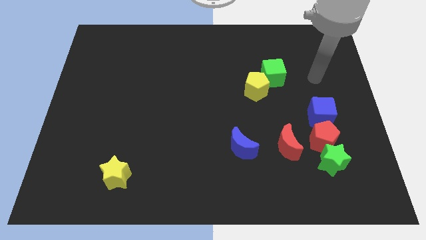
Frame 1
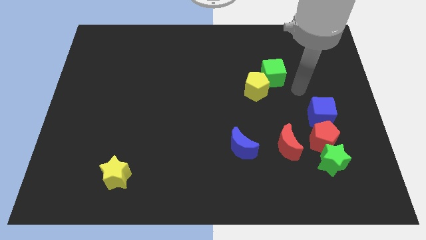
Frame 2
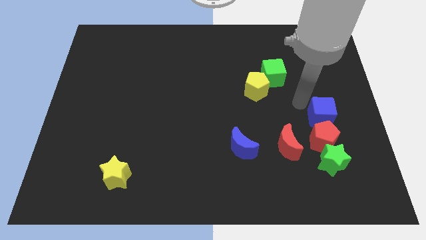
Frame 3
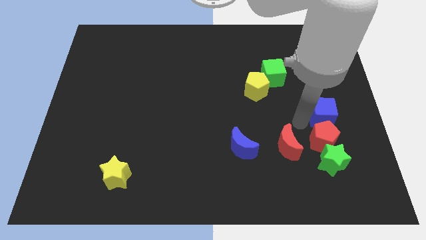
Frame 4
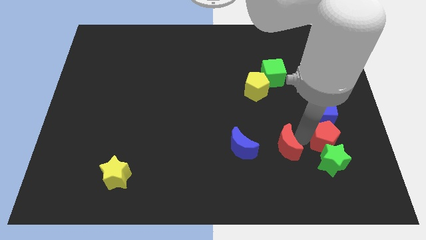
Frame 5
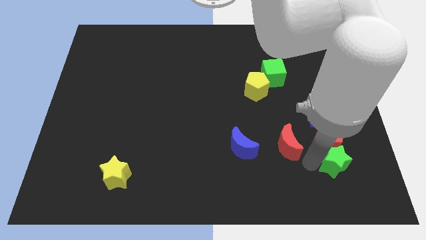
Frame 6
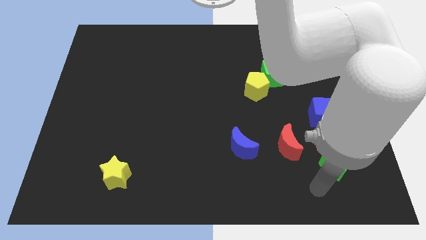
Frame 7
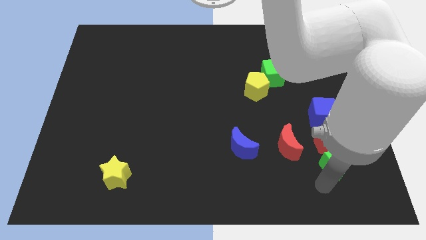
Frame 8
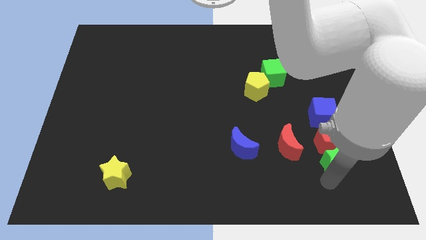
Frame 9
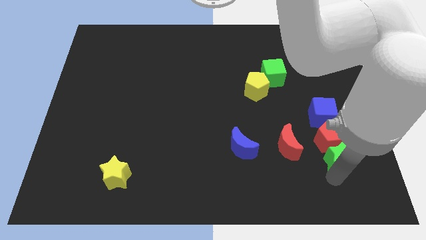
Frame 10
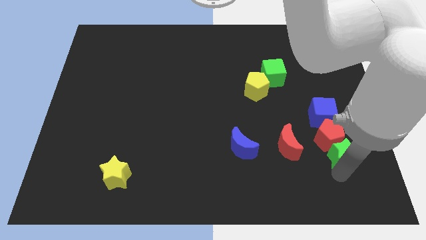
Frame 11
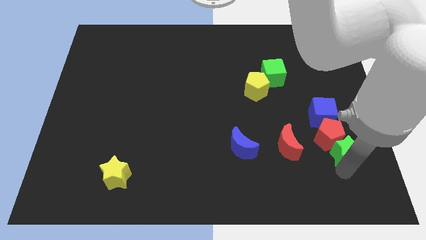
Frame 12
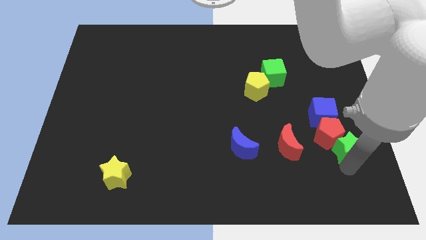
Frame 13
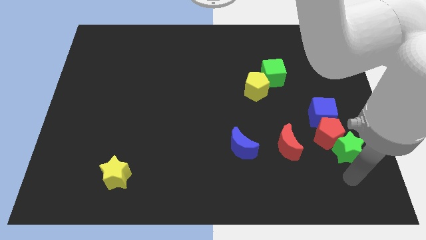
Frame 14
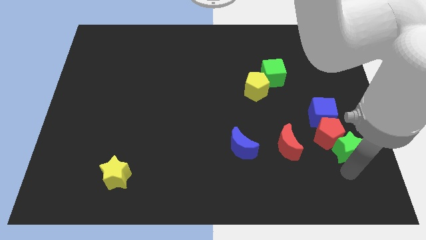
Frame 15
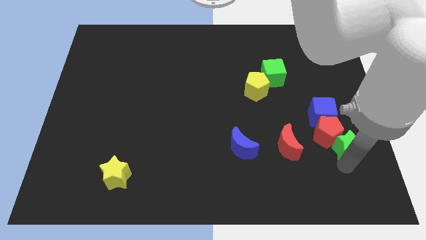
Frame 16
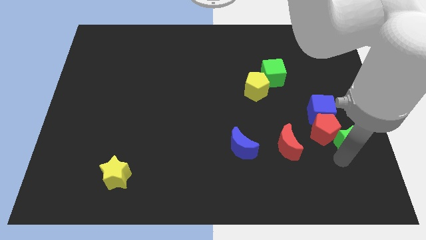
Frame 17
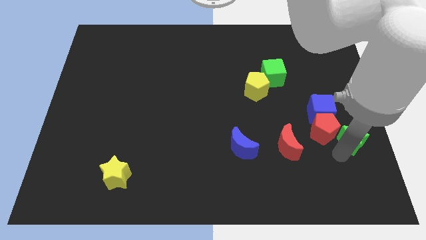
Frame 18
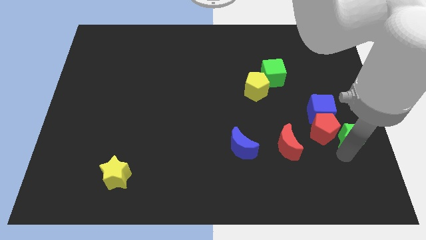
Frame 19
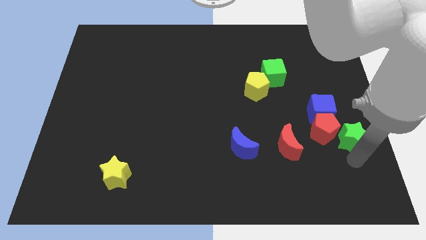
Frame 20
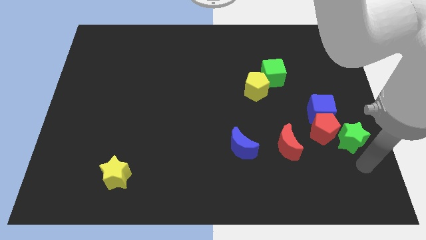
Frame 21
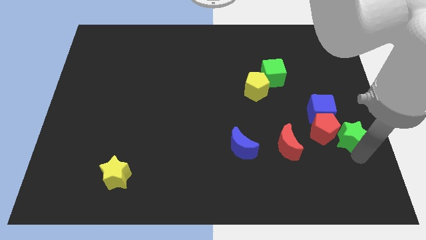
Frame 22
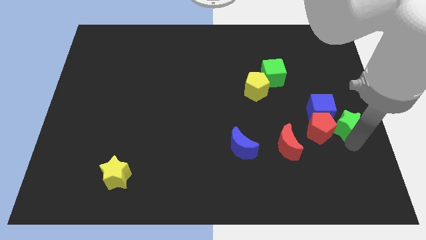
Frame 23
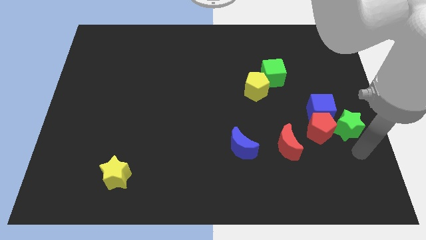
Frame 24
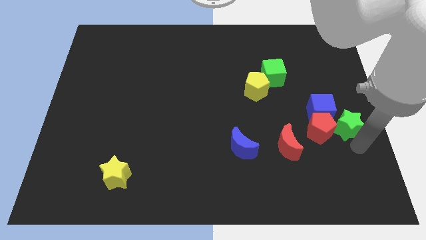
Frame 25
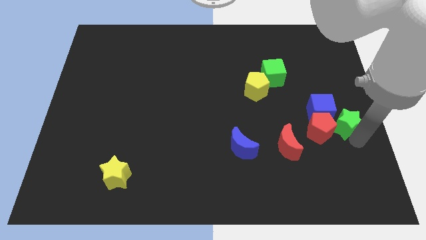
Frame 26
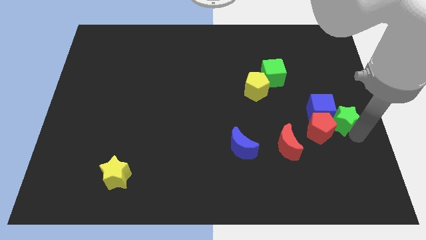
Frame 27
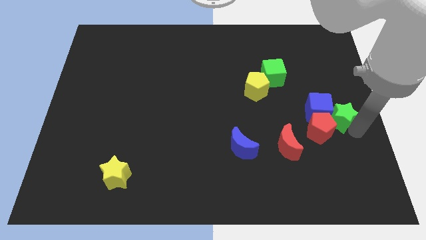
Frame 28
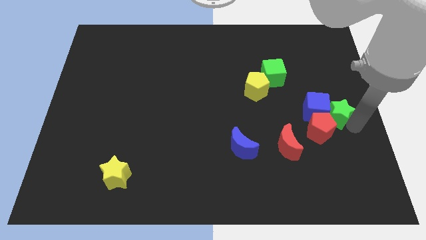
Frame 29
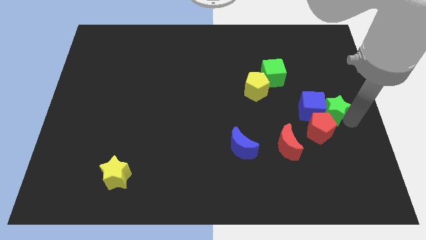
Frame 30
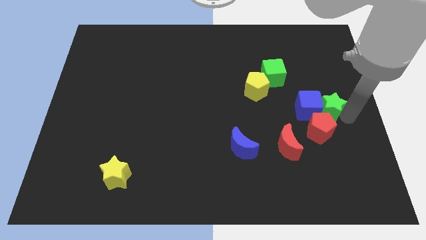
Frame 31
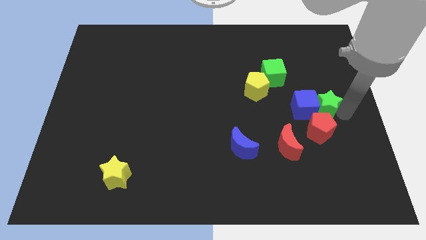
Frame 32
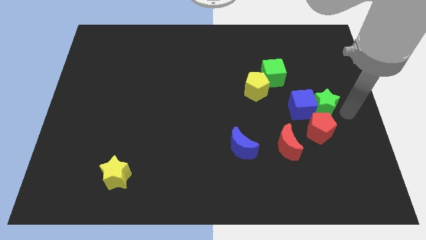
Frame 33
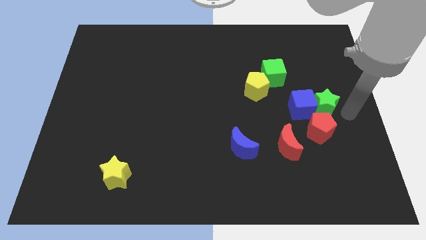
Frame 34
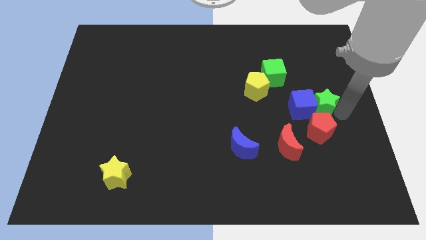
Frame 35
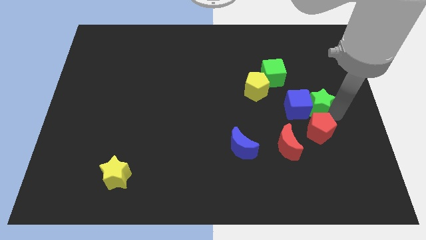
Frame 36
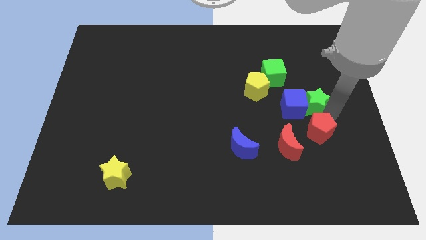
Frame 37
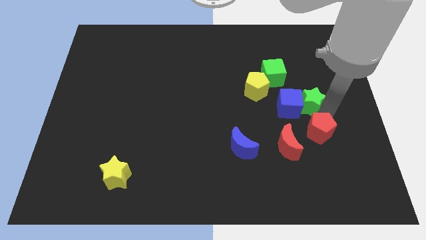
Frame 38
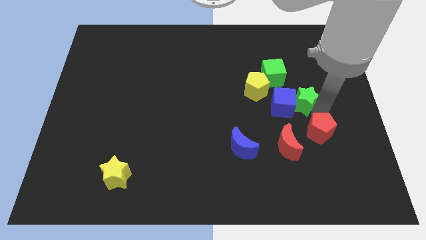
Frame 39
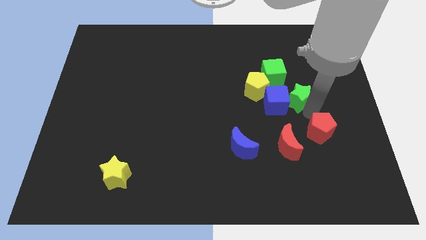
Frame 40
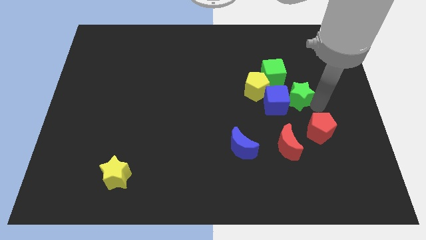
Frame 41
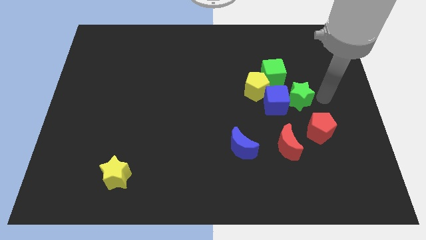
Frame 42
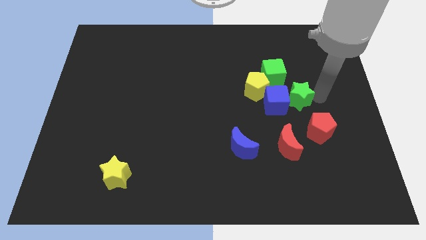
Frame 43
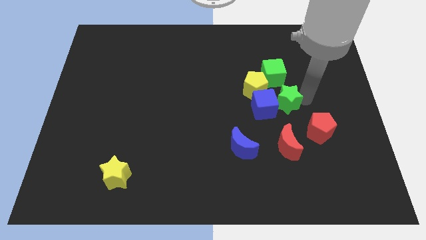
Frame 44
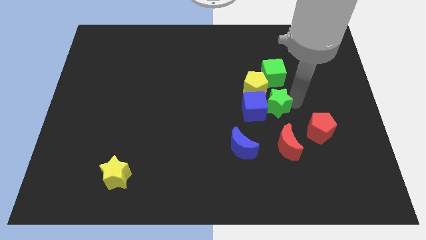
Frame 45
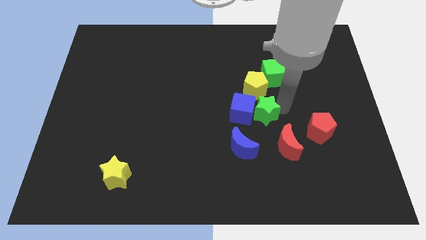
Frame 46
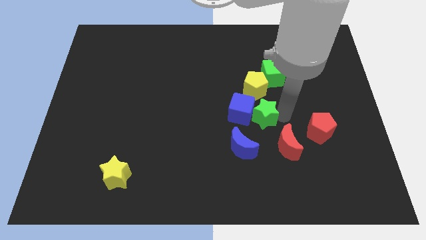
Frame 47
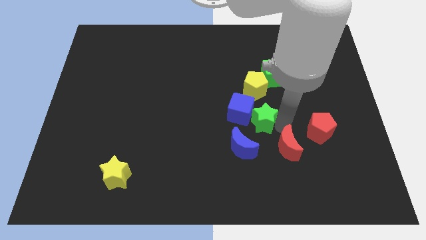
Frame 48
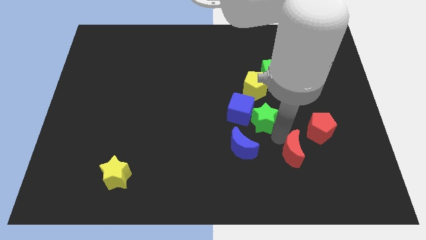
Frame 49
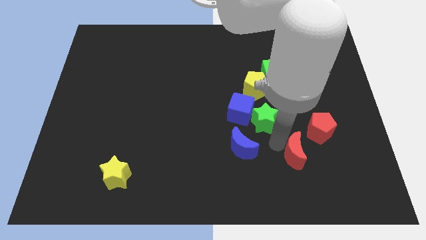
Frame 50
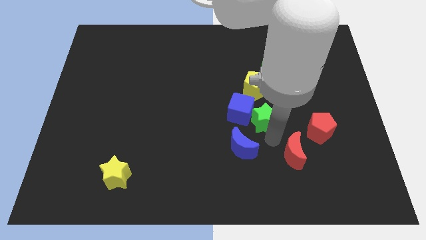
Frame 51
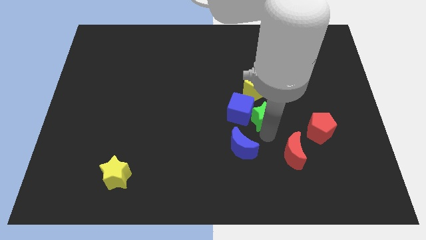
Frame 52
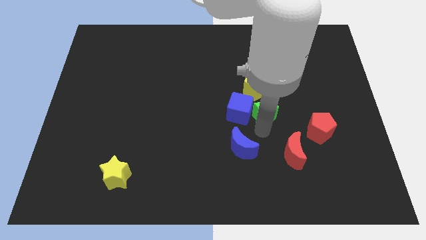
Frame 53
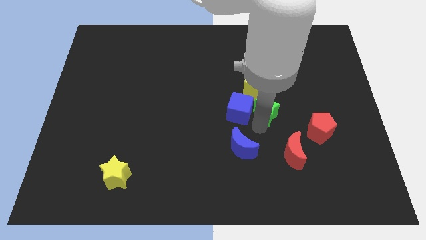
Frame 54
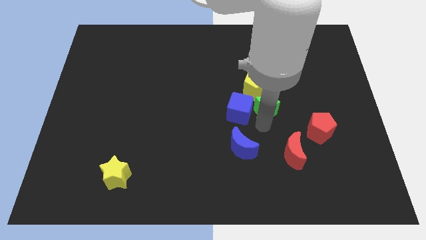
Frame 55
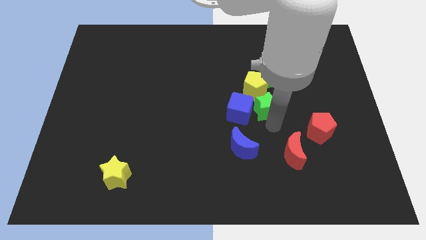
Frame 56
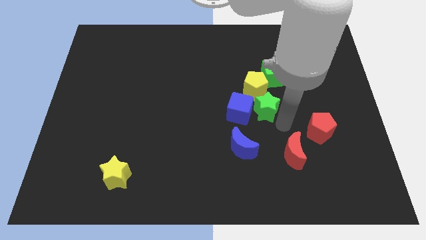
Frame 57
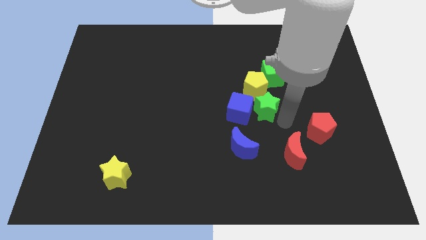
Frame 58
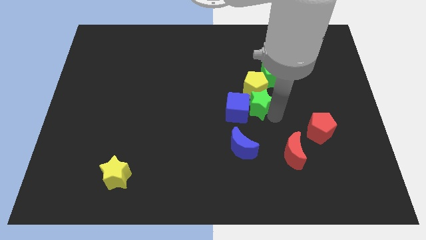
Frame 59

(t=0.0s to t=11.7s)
slide the green star up and left diagonally

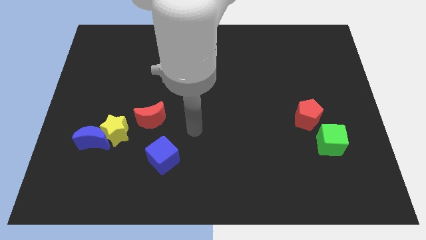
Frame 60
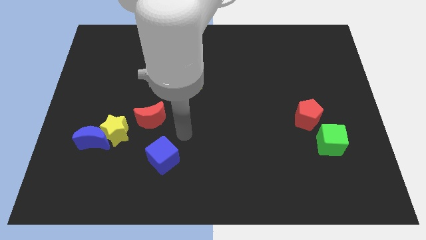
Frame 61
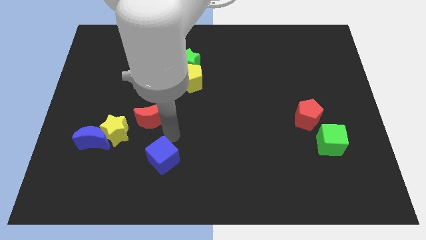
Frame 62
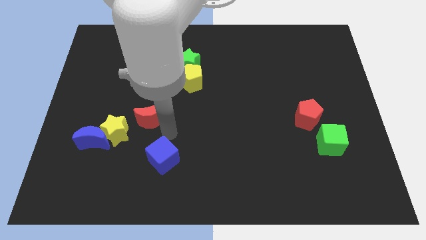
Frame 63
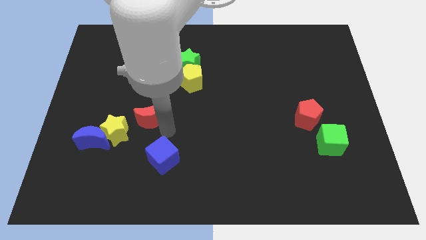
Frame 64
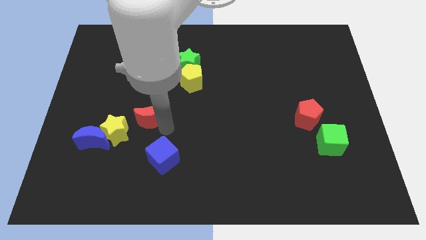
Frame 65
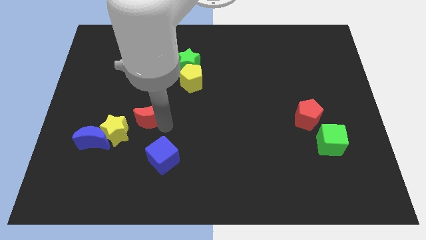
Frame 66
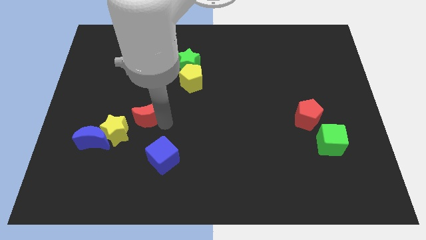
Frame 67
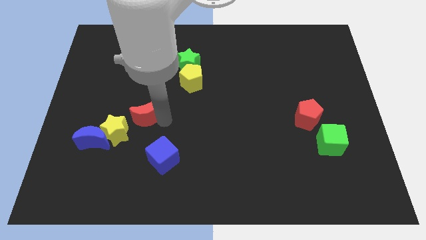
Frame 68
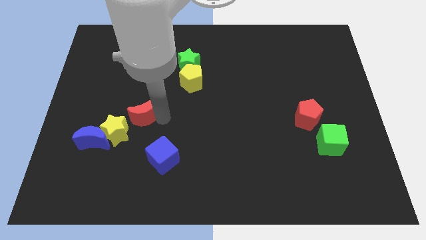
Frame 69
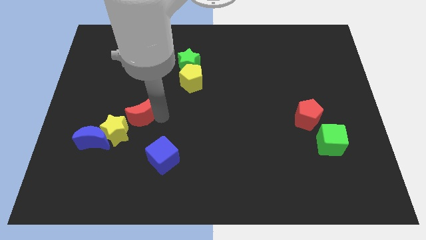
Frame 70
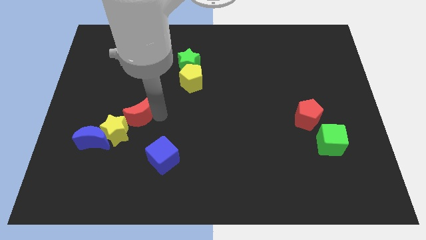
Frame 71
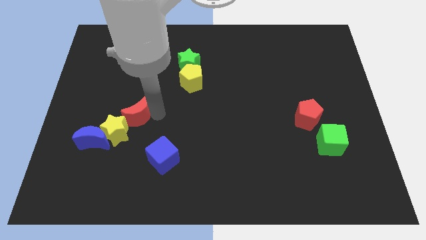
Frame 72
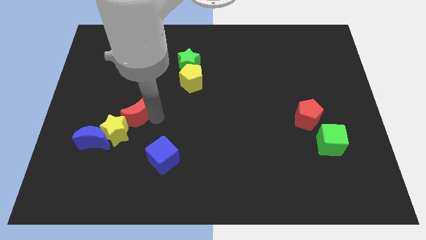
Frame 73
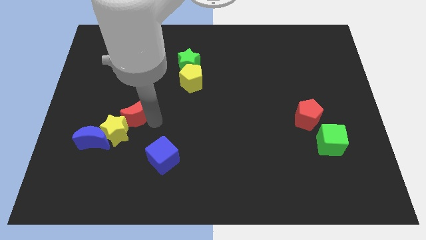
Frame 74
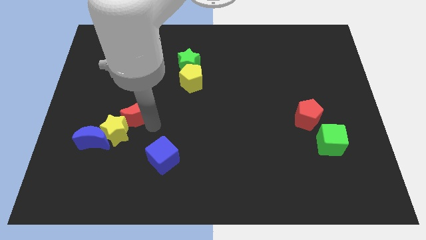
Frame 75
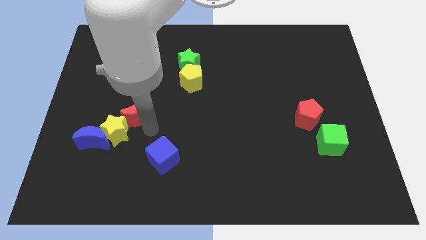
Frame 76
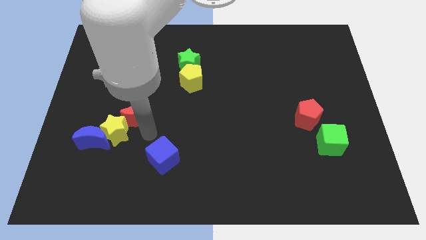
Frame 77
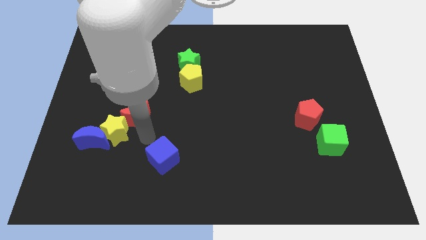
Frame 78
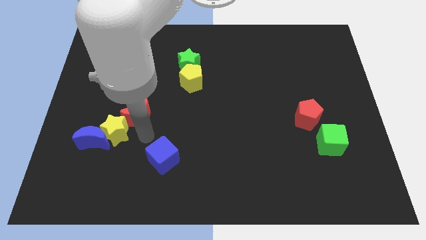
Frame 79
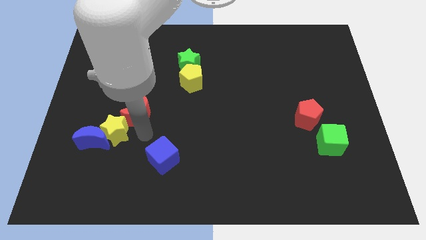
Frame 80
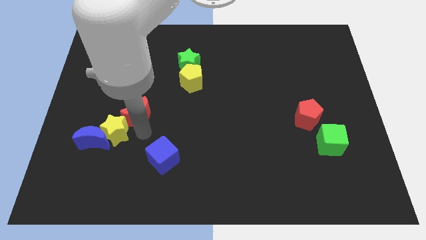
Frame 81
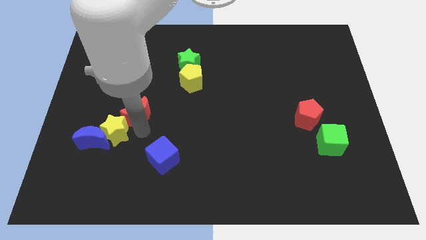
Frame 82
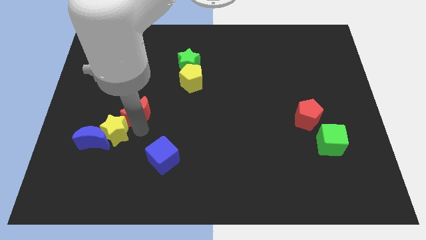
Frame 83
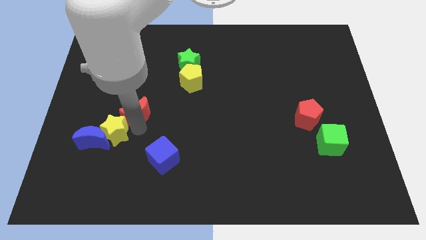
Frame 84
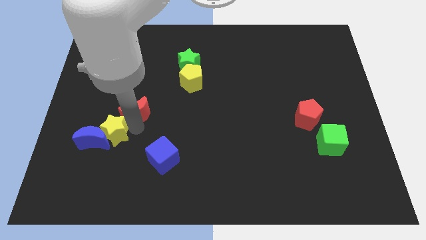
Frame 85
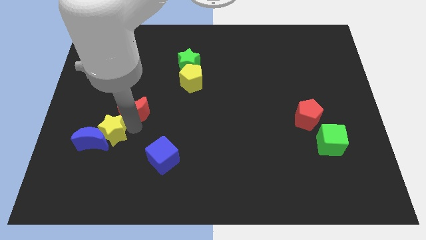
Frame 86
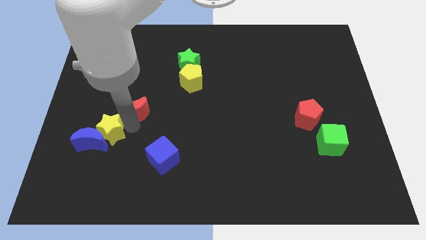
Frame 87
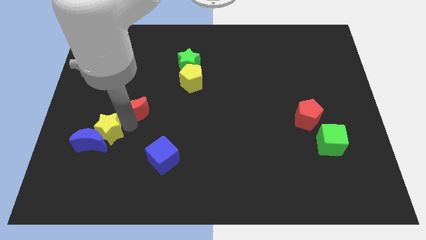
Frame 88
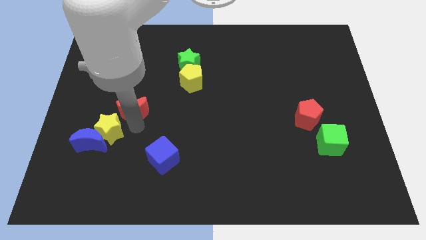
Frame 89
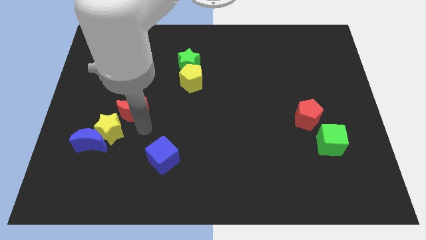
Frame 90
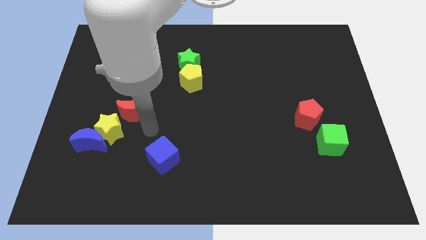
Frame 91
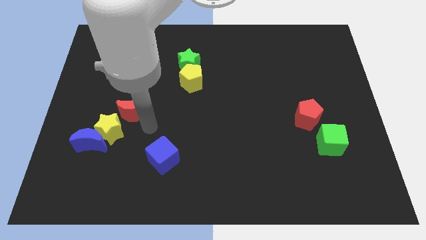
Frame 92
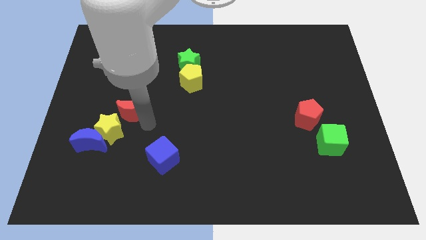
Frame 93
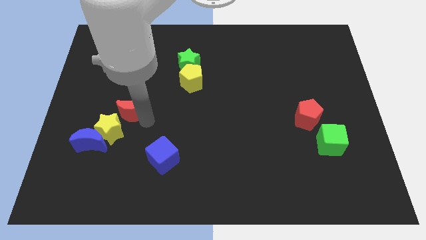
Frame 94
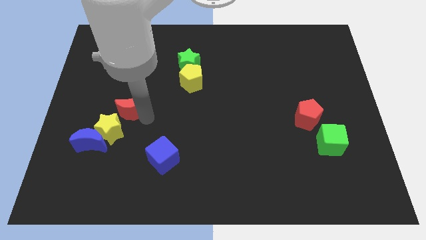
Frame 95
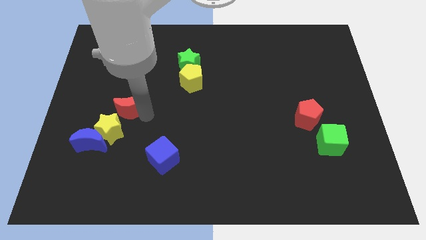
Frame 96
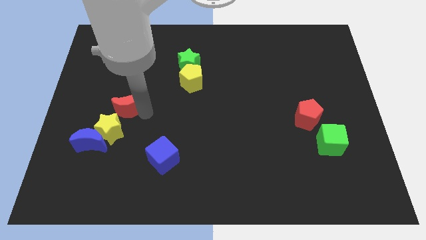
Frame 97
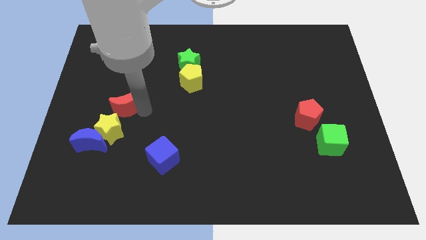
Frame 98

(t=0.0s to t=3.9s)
push the red moon diagonally upwards and left somewhat
